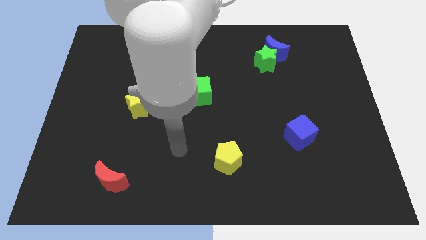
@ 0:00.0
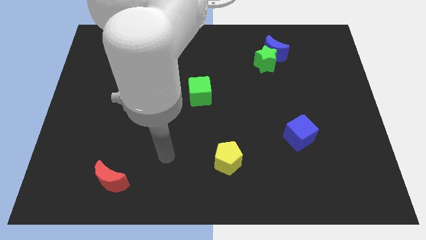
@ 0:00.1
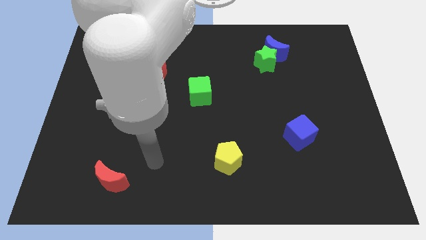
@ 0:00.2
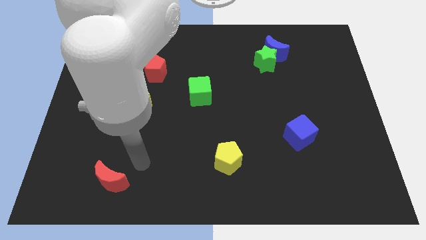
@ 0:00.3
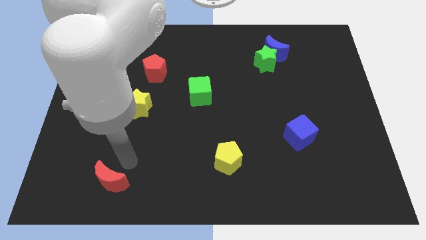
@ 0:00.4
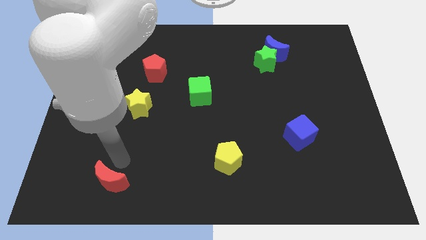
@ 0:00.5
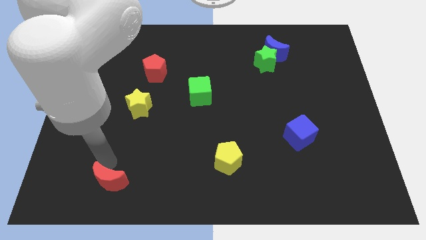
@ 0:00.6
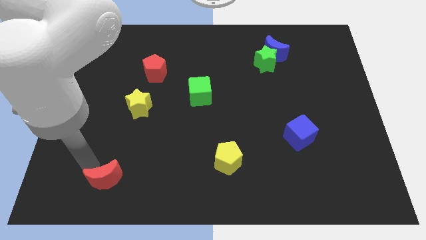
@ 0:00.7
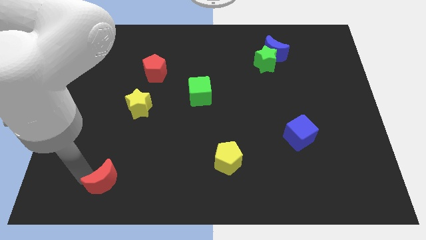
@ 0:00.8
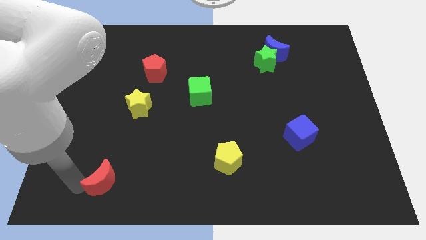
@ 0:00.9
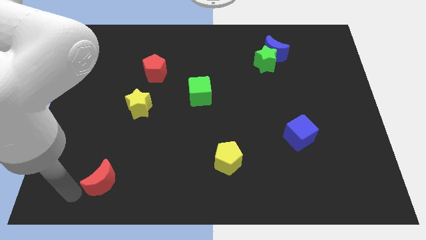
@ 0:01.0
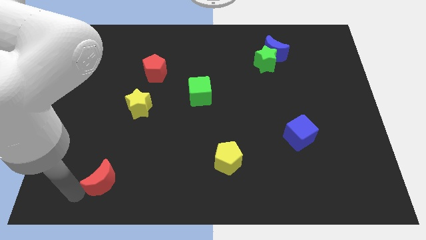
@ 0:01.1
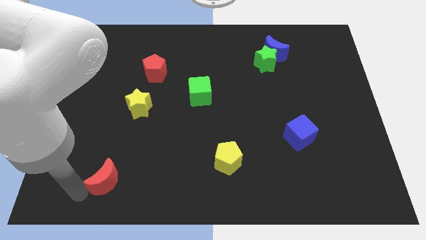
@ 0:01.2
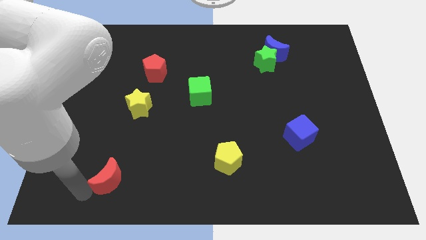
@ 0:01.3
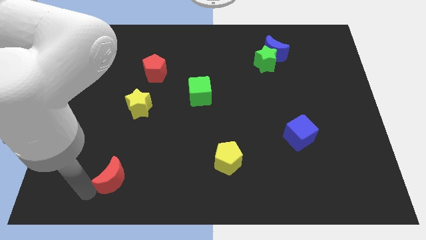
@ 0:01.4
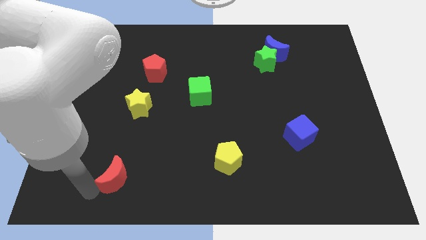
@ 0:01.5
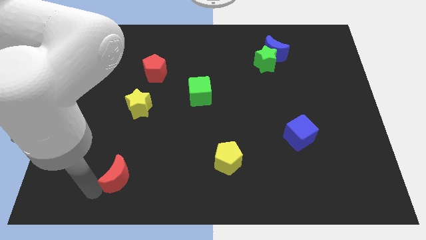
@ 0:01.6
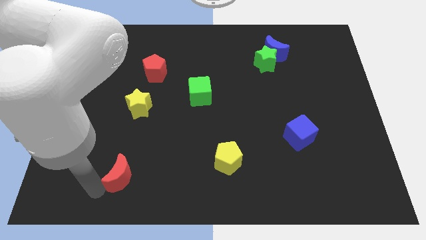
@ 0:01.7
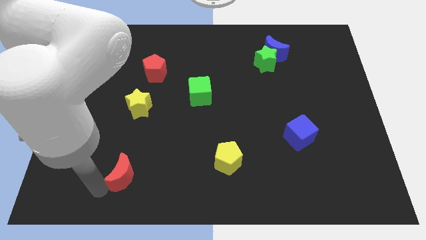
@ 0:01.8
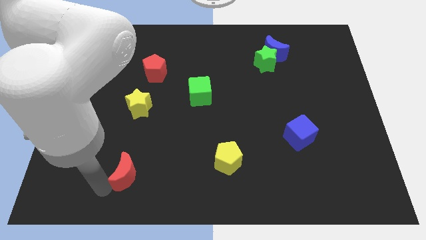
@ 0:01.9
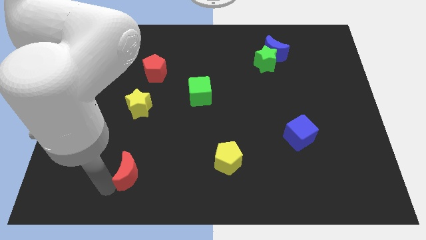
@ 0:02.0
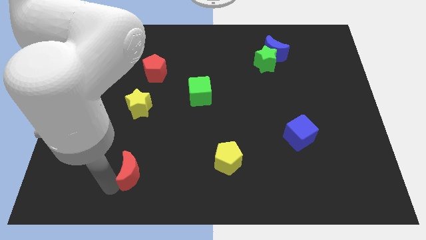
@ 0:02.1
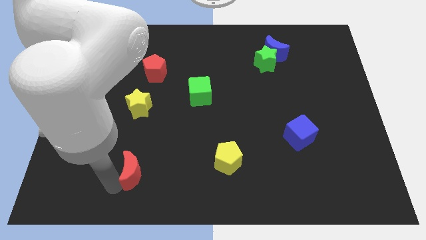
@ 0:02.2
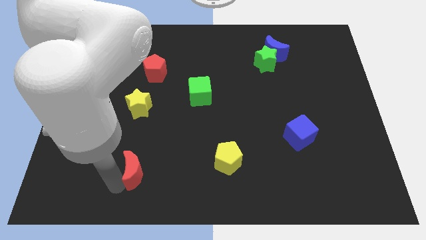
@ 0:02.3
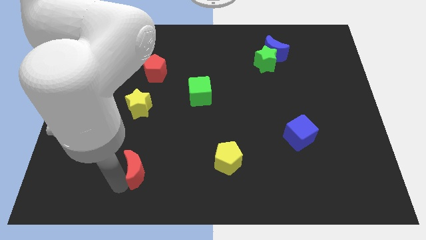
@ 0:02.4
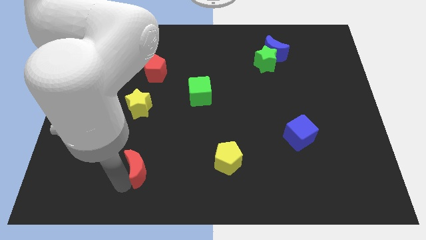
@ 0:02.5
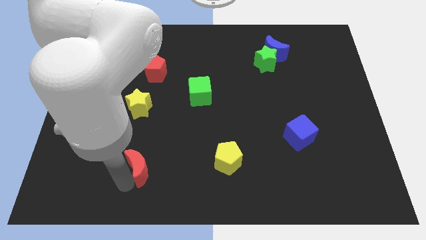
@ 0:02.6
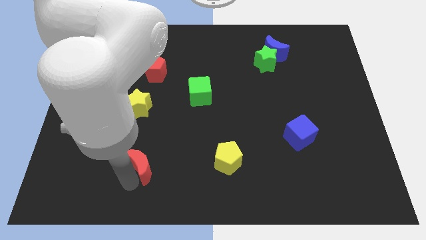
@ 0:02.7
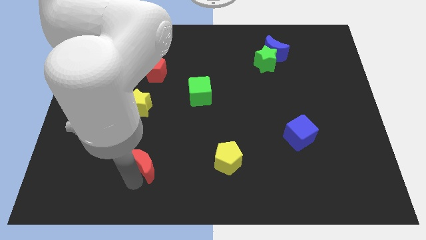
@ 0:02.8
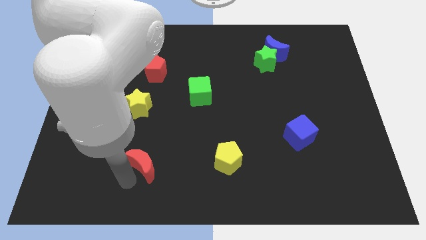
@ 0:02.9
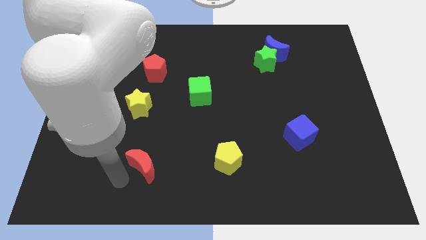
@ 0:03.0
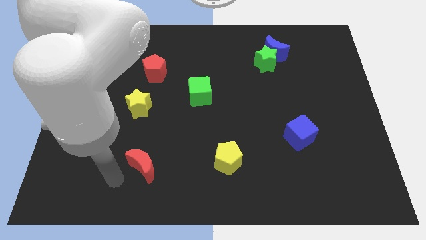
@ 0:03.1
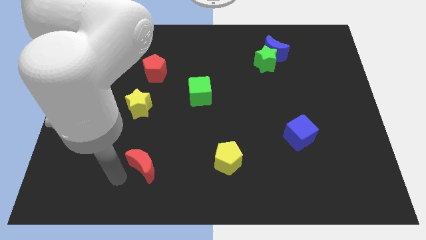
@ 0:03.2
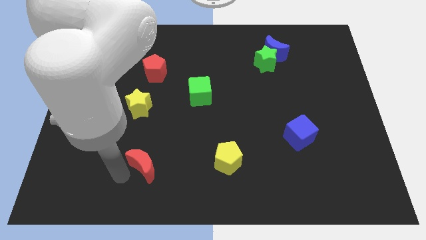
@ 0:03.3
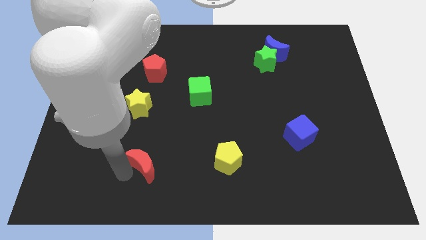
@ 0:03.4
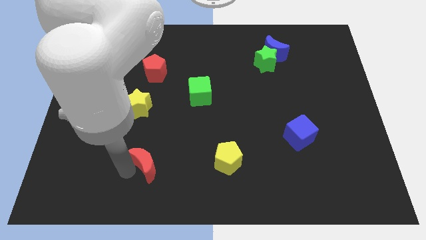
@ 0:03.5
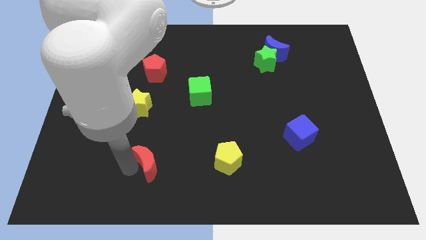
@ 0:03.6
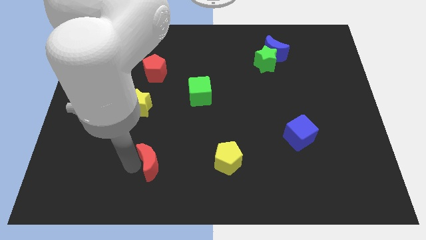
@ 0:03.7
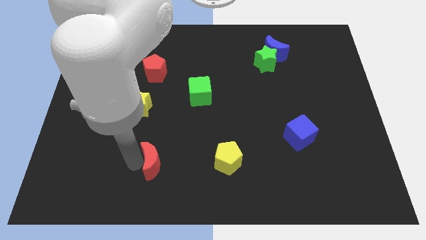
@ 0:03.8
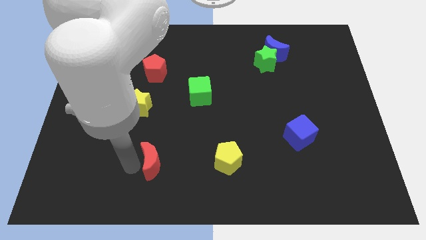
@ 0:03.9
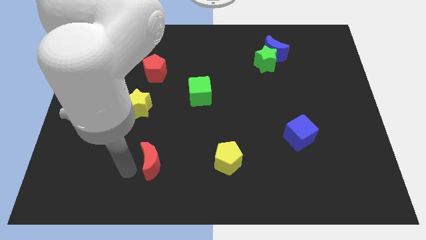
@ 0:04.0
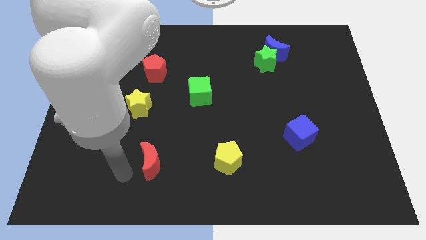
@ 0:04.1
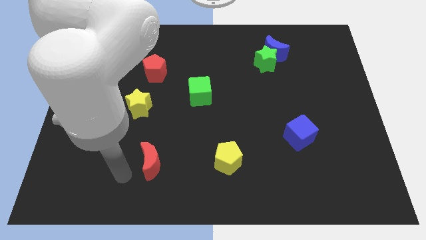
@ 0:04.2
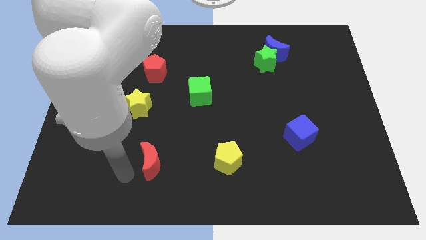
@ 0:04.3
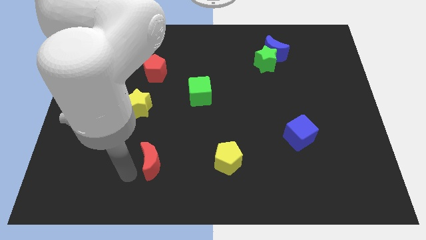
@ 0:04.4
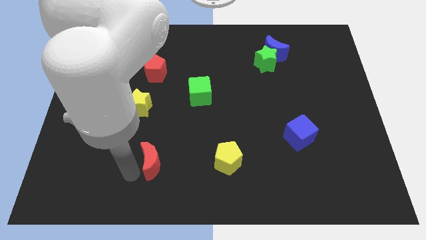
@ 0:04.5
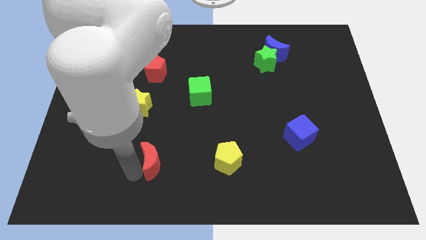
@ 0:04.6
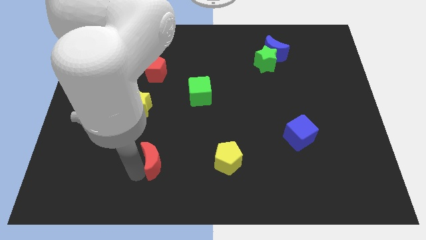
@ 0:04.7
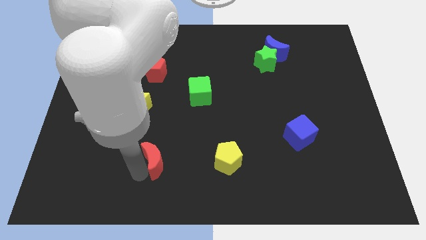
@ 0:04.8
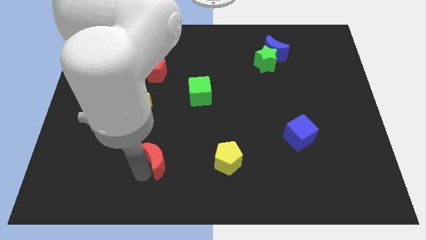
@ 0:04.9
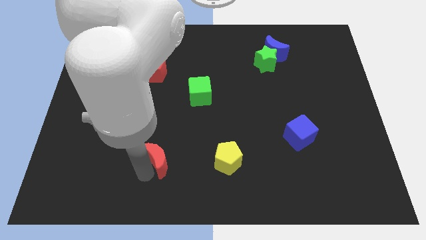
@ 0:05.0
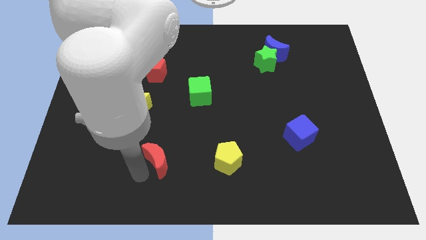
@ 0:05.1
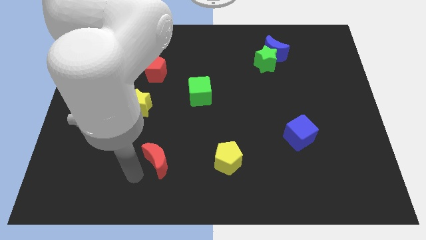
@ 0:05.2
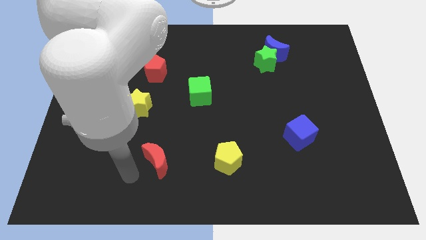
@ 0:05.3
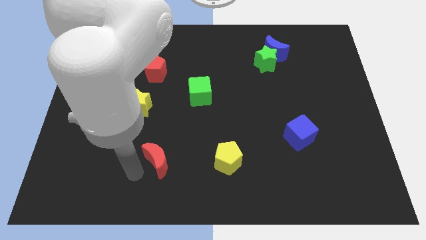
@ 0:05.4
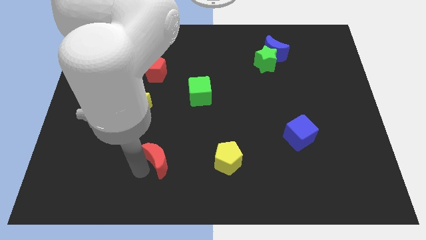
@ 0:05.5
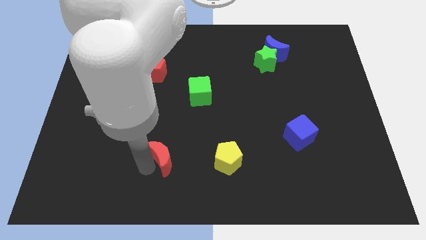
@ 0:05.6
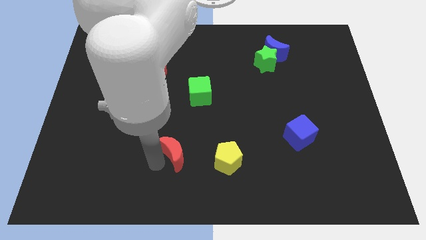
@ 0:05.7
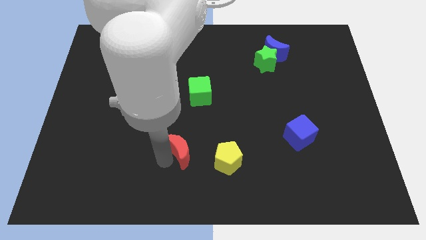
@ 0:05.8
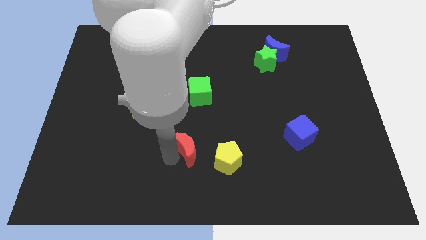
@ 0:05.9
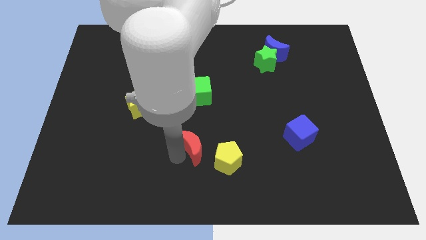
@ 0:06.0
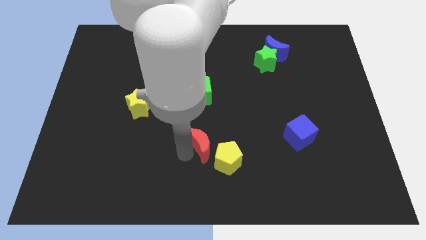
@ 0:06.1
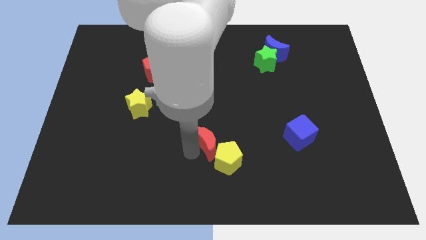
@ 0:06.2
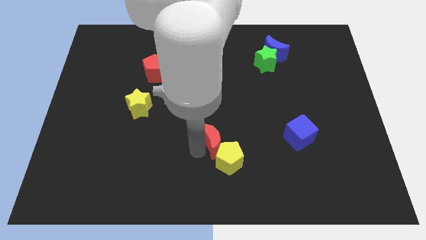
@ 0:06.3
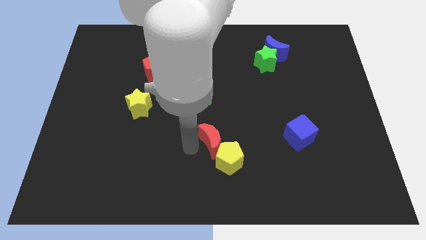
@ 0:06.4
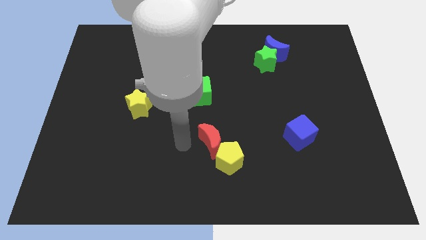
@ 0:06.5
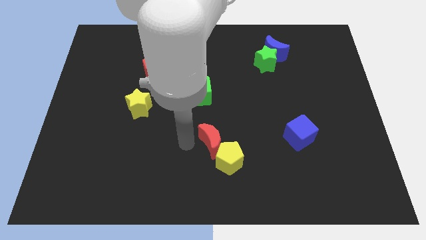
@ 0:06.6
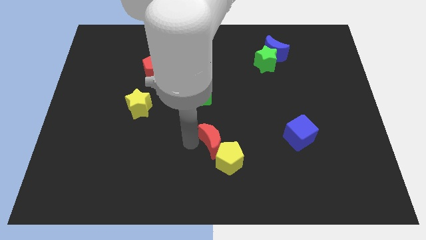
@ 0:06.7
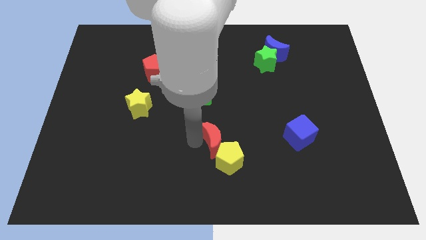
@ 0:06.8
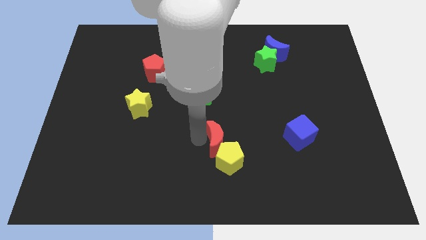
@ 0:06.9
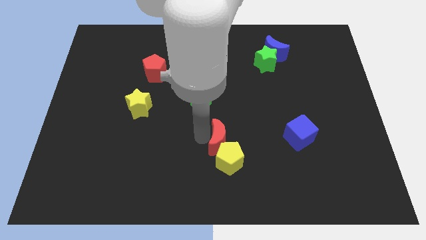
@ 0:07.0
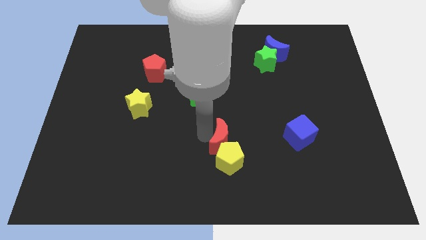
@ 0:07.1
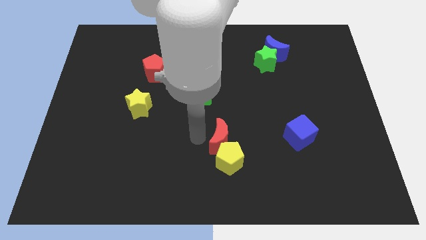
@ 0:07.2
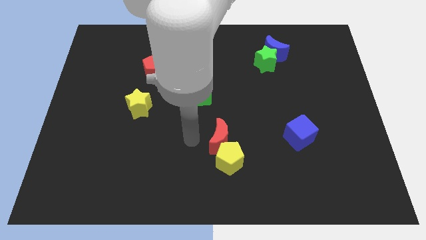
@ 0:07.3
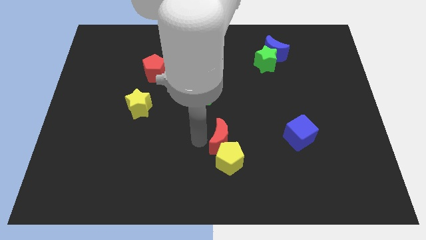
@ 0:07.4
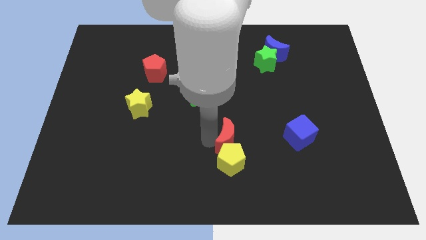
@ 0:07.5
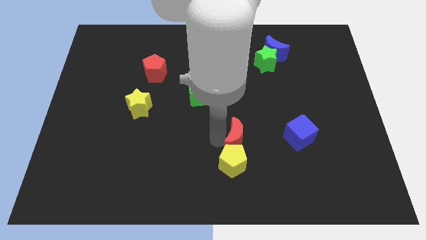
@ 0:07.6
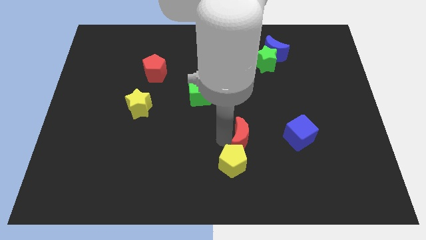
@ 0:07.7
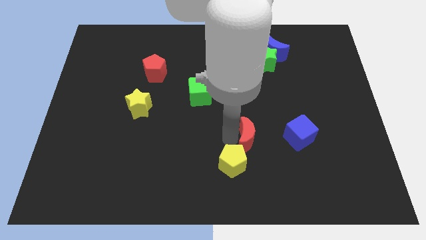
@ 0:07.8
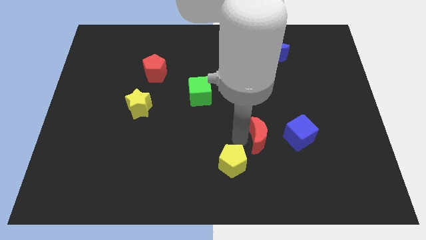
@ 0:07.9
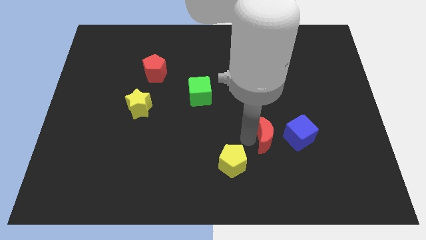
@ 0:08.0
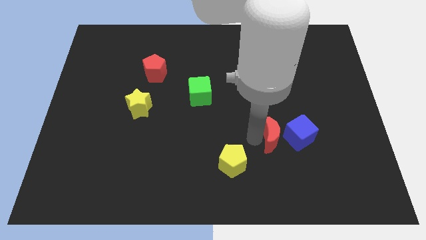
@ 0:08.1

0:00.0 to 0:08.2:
push the red moon to the blue cube
